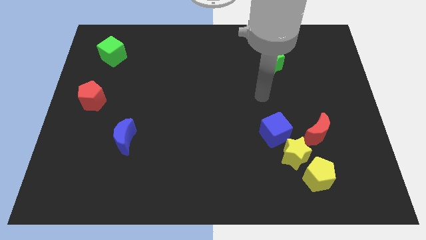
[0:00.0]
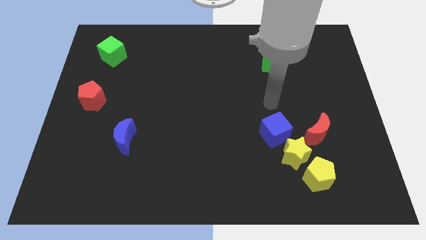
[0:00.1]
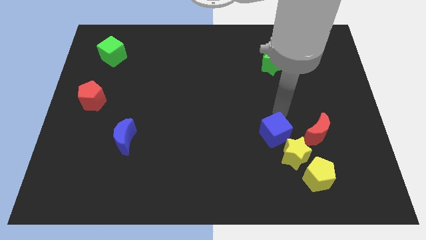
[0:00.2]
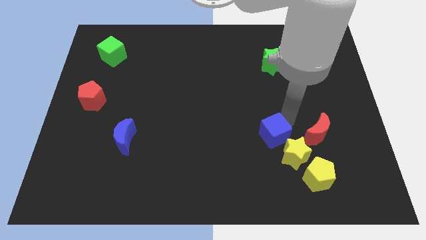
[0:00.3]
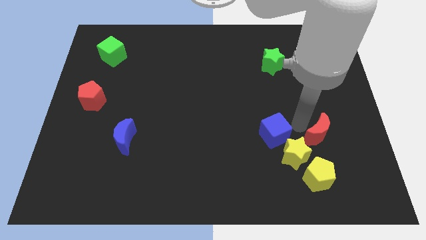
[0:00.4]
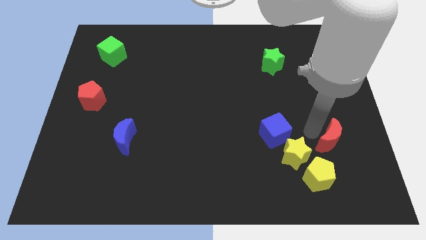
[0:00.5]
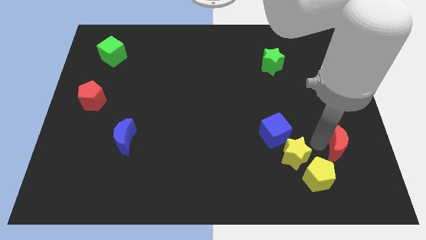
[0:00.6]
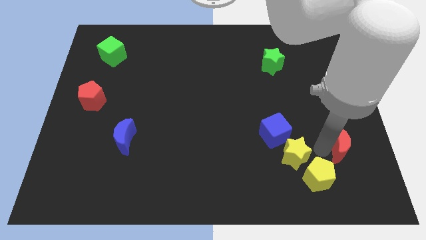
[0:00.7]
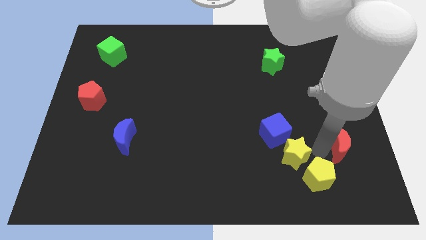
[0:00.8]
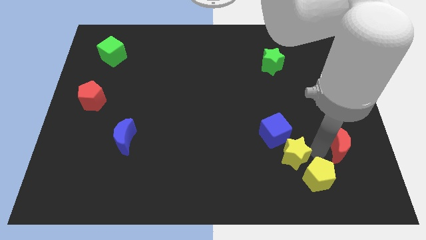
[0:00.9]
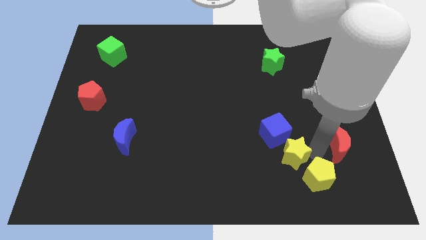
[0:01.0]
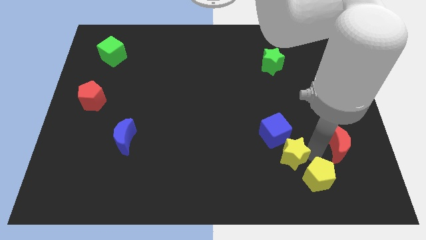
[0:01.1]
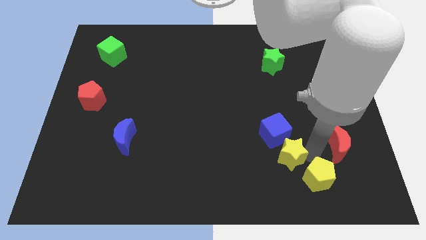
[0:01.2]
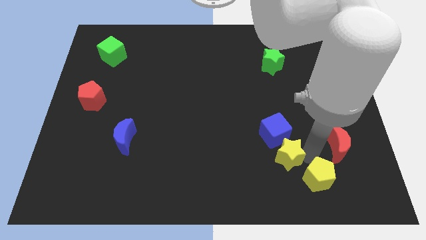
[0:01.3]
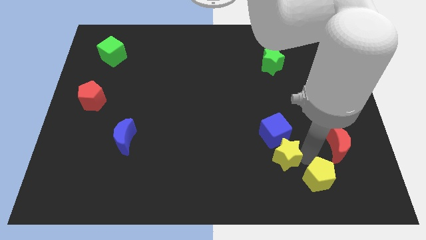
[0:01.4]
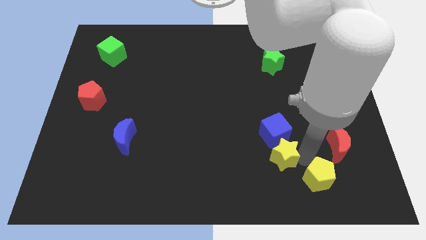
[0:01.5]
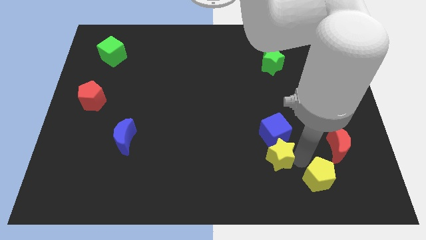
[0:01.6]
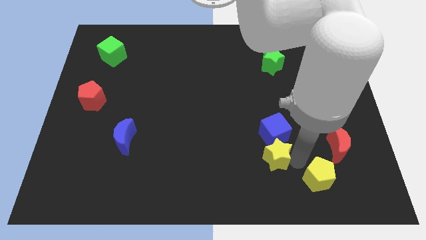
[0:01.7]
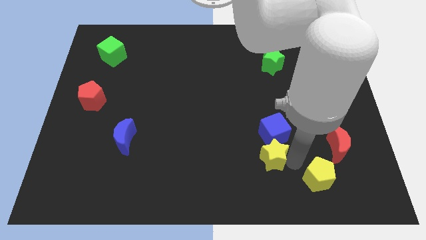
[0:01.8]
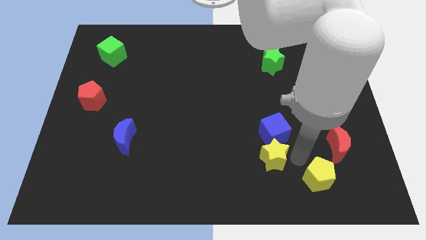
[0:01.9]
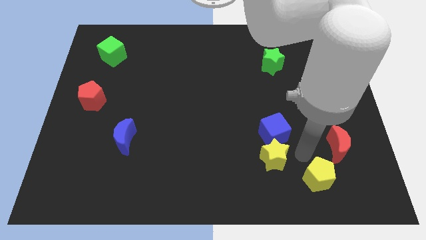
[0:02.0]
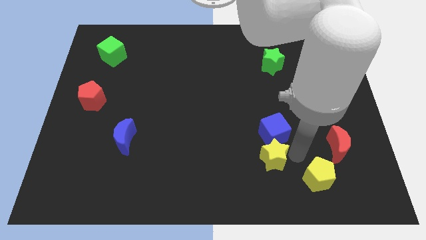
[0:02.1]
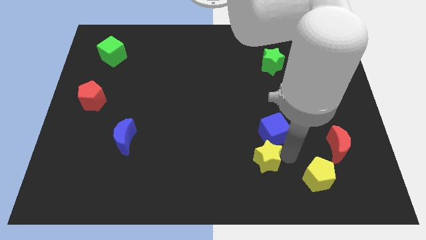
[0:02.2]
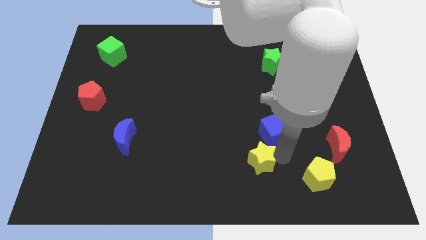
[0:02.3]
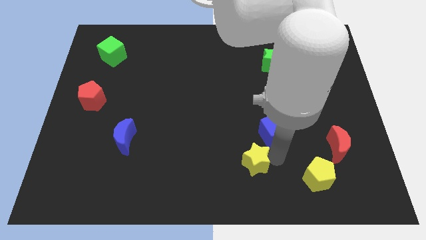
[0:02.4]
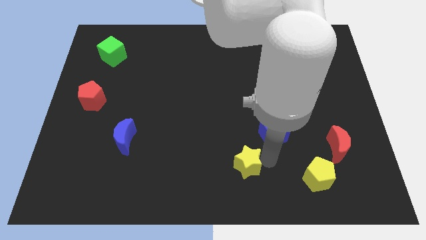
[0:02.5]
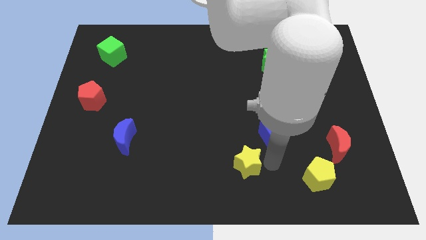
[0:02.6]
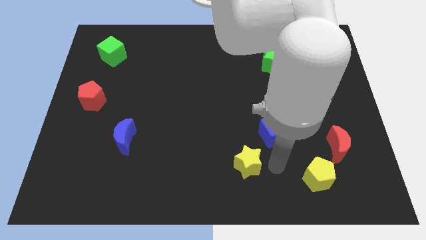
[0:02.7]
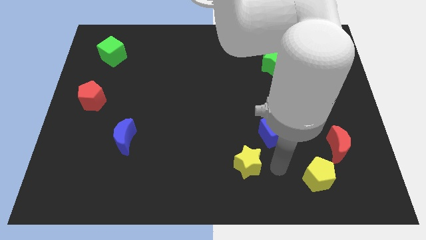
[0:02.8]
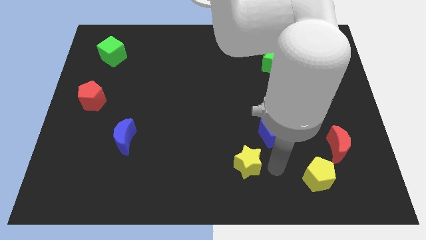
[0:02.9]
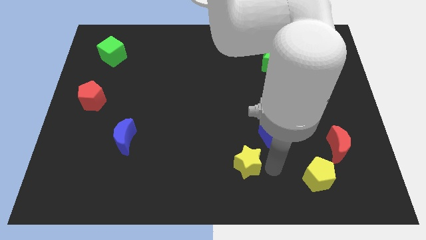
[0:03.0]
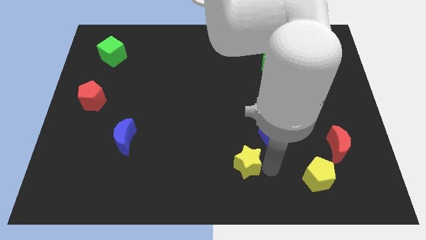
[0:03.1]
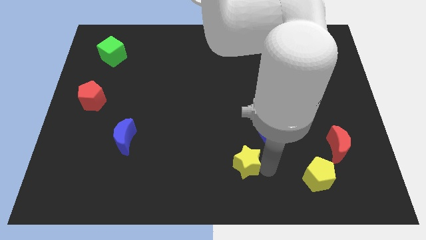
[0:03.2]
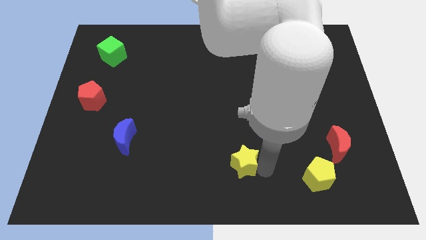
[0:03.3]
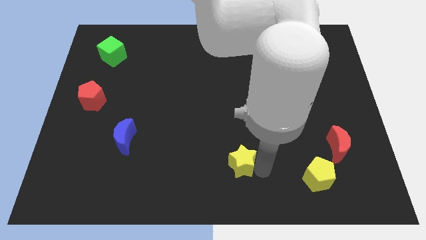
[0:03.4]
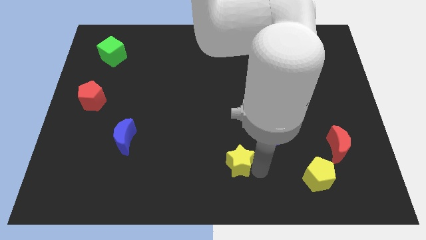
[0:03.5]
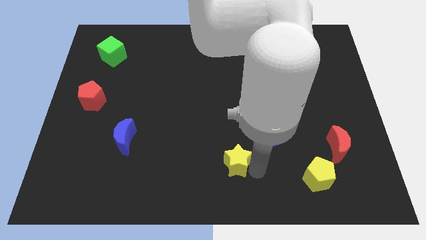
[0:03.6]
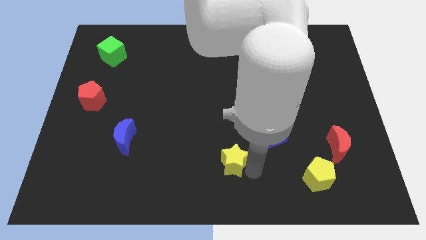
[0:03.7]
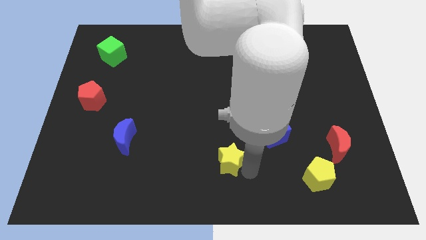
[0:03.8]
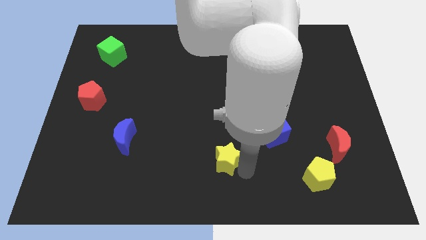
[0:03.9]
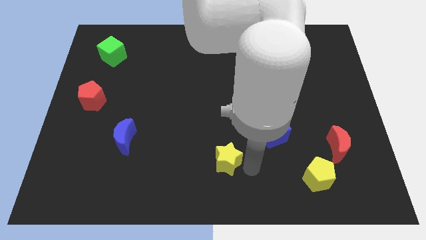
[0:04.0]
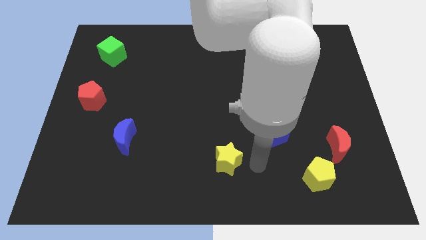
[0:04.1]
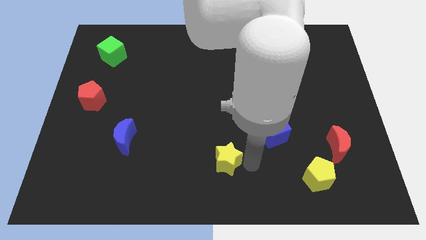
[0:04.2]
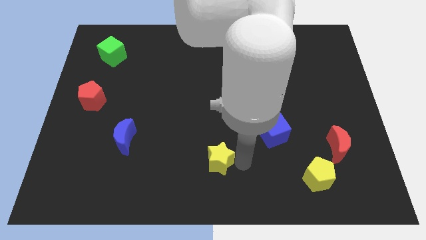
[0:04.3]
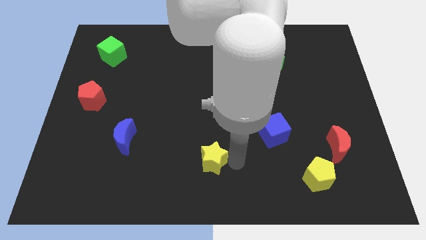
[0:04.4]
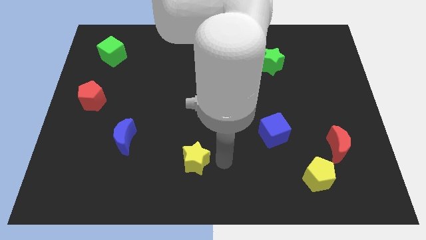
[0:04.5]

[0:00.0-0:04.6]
move the yellow star left

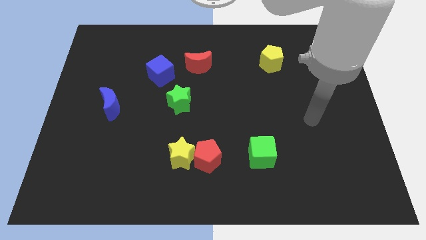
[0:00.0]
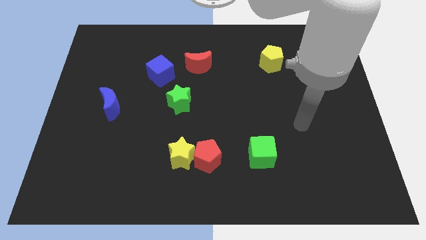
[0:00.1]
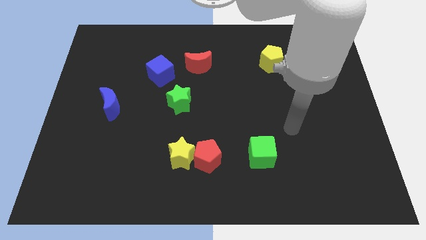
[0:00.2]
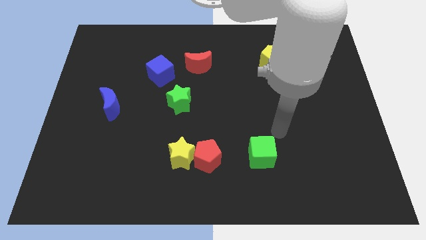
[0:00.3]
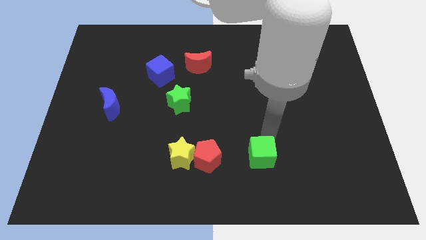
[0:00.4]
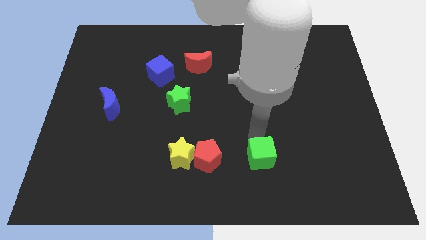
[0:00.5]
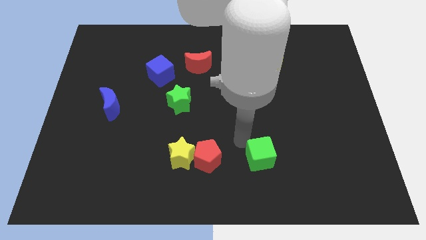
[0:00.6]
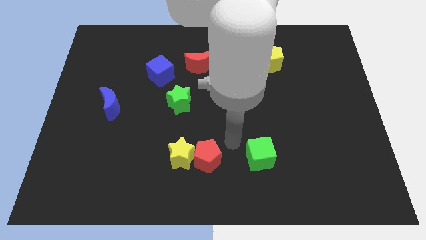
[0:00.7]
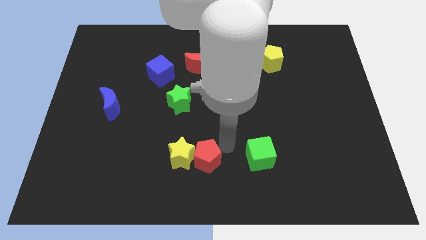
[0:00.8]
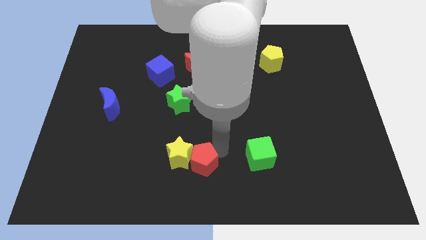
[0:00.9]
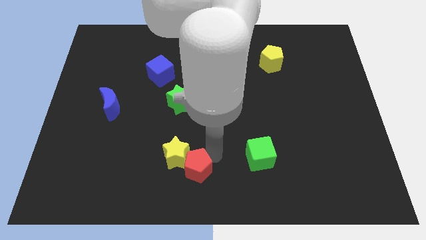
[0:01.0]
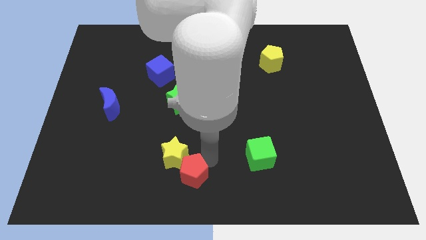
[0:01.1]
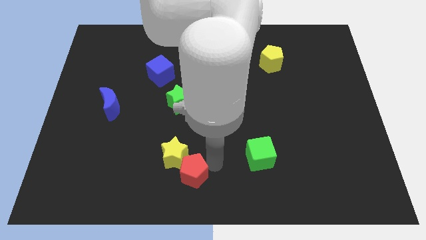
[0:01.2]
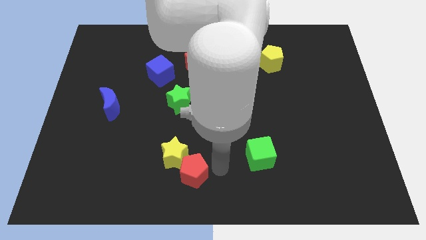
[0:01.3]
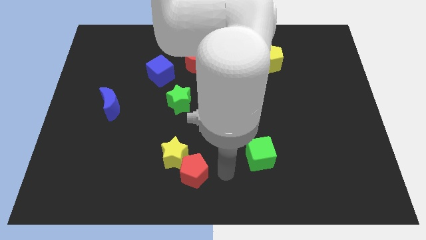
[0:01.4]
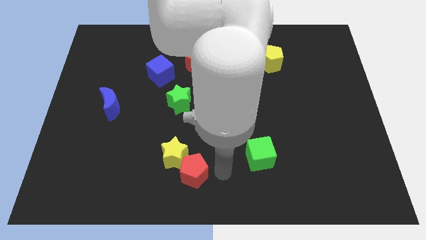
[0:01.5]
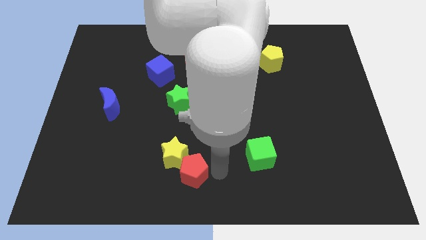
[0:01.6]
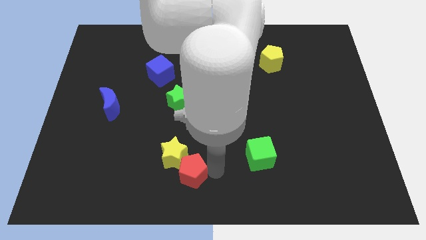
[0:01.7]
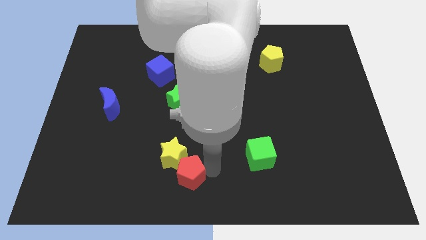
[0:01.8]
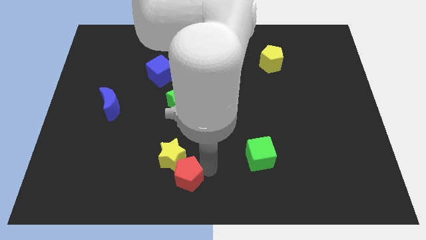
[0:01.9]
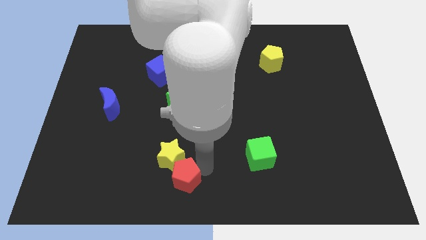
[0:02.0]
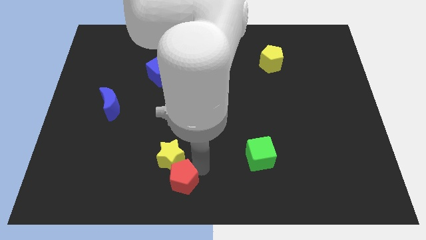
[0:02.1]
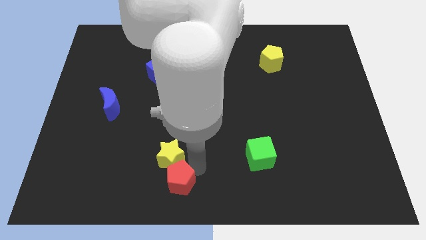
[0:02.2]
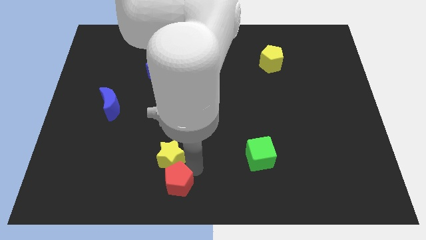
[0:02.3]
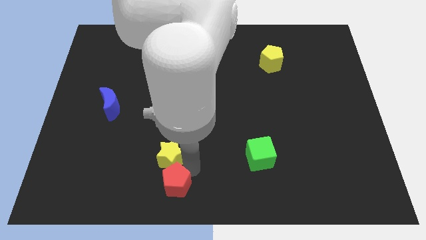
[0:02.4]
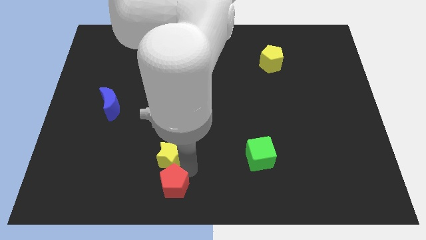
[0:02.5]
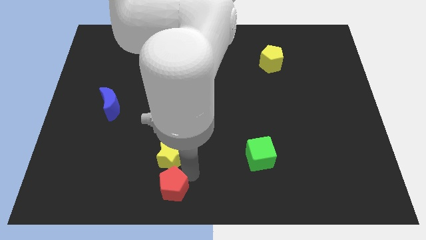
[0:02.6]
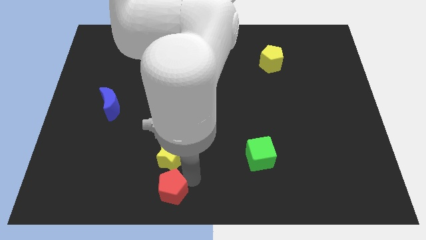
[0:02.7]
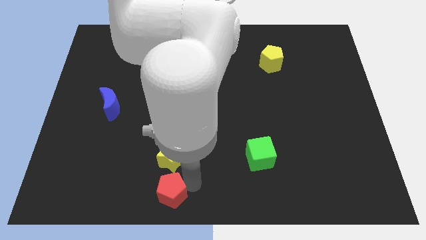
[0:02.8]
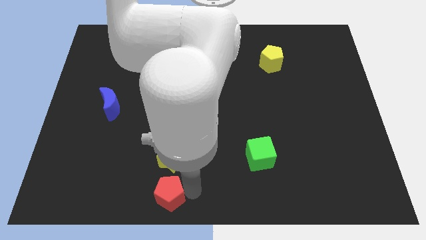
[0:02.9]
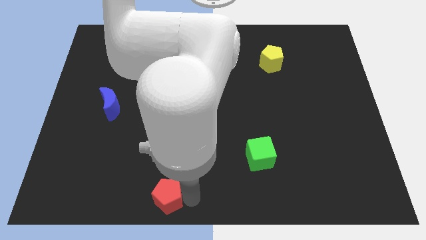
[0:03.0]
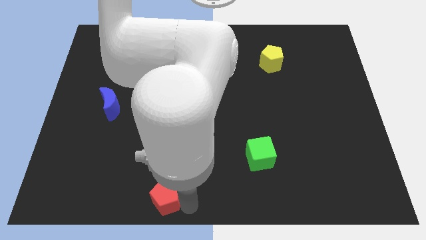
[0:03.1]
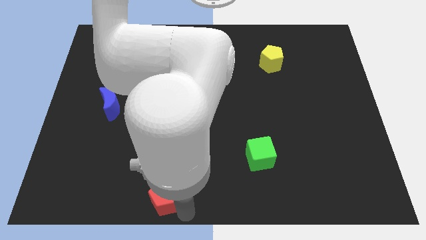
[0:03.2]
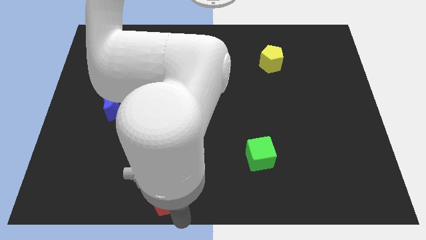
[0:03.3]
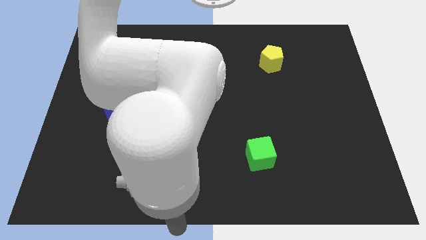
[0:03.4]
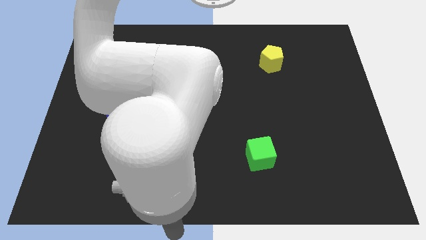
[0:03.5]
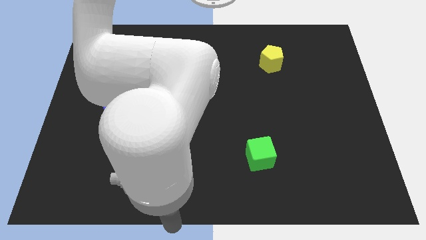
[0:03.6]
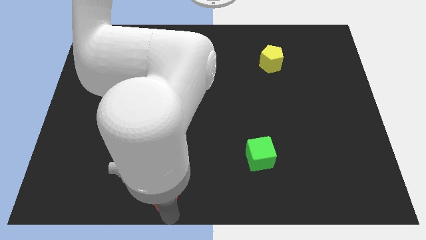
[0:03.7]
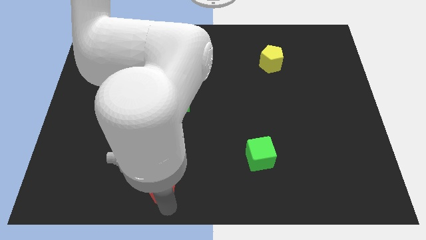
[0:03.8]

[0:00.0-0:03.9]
push the red pentagon left a bit
